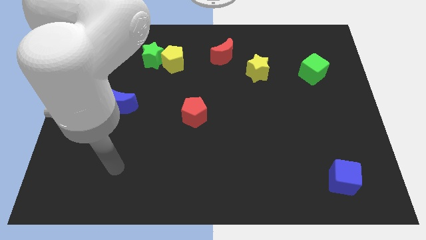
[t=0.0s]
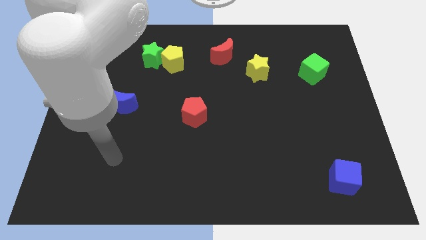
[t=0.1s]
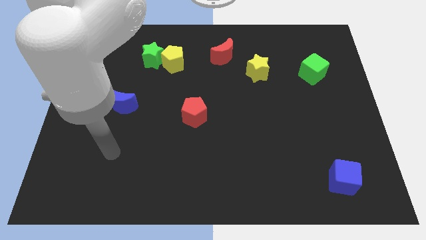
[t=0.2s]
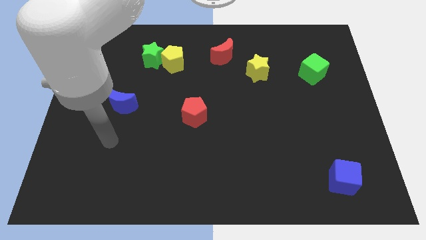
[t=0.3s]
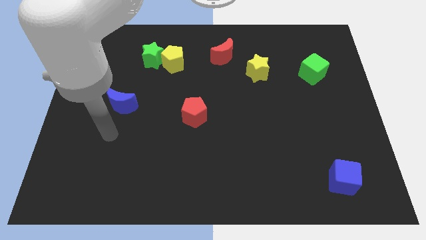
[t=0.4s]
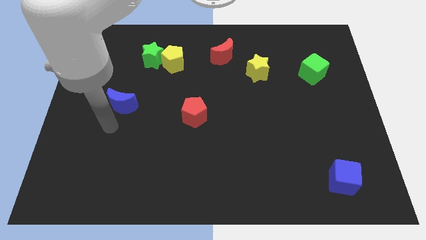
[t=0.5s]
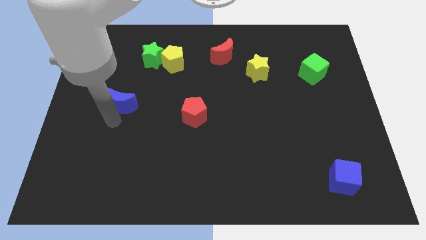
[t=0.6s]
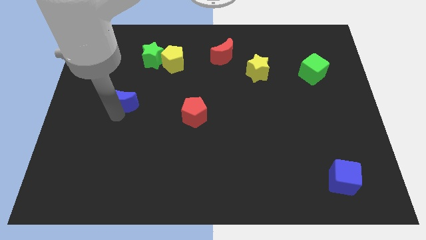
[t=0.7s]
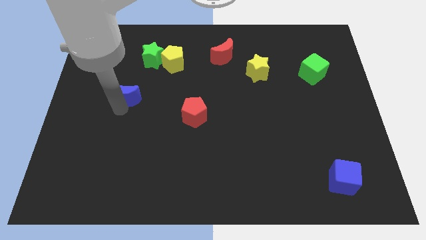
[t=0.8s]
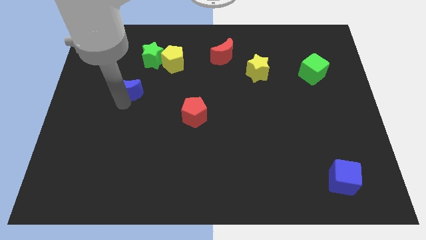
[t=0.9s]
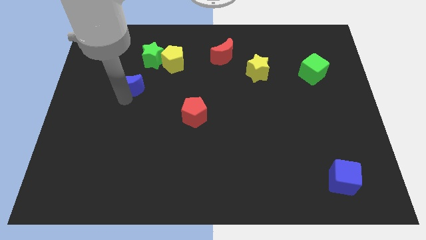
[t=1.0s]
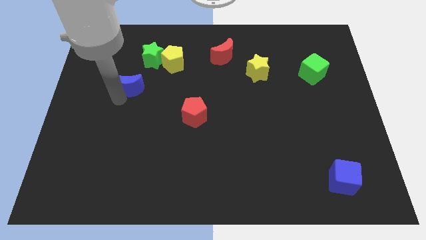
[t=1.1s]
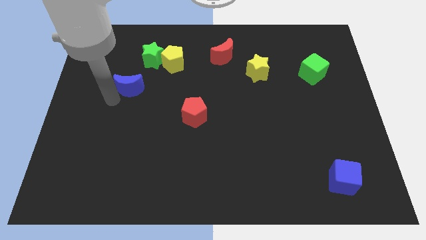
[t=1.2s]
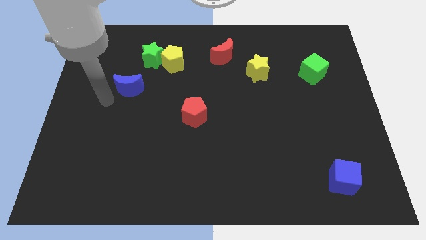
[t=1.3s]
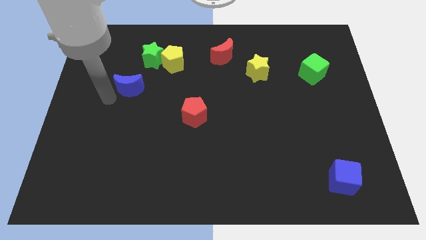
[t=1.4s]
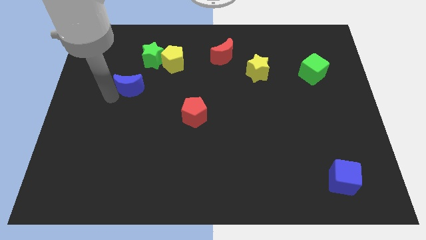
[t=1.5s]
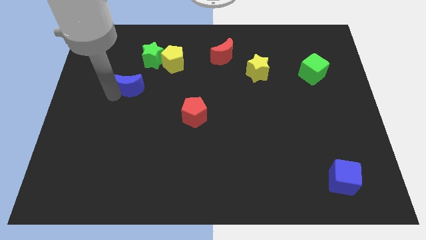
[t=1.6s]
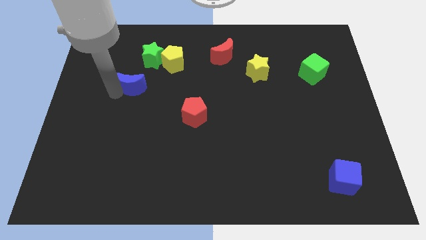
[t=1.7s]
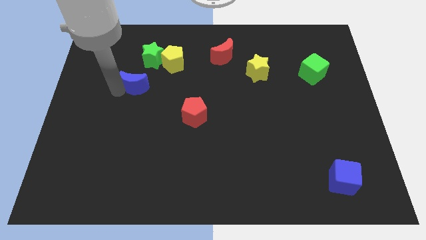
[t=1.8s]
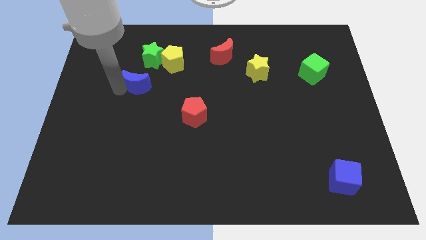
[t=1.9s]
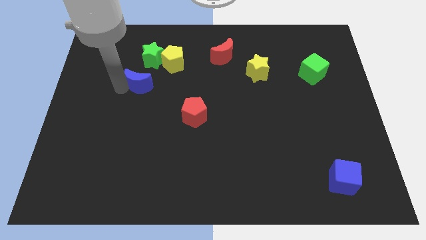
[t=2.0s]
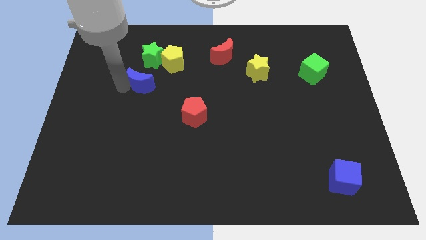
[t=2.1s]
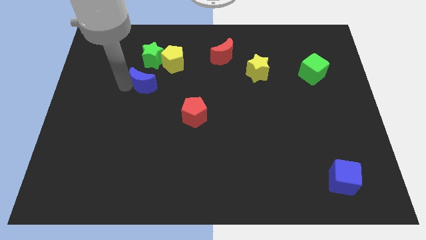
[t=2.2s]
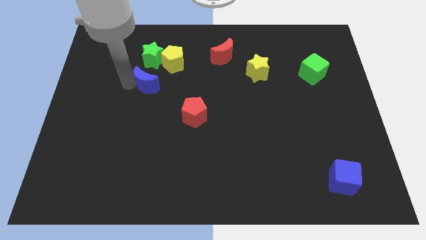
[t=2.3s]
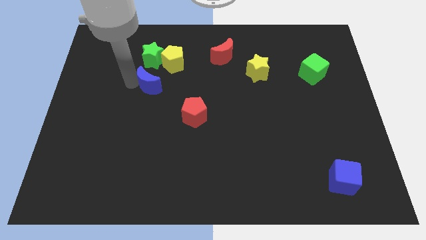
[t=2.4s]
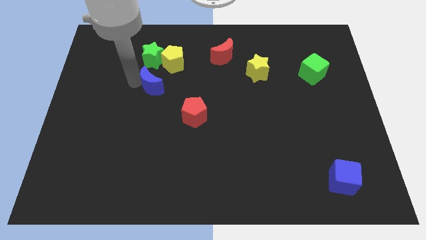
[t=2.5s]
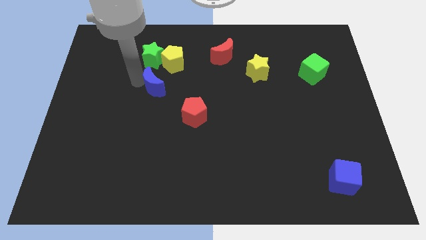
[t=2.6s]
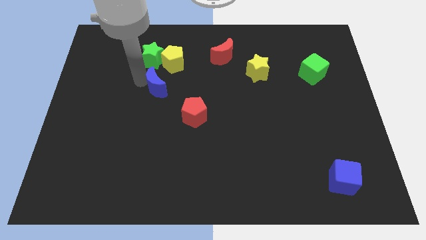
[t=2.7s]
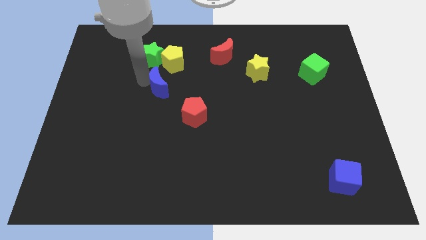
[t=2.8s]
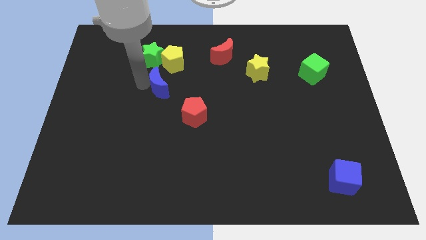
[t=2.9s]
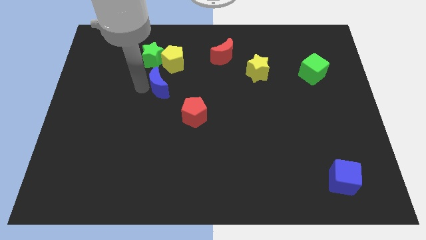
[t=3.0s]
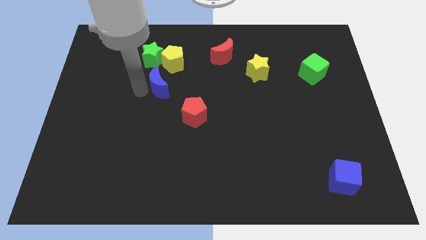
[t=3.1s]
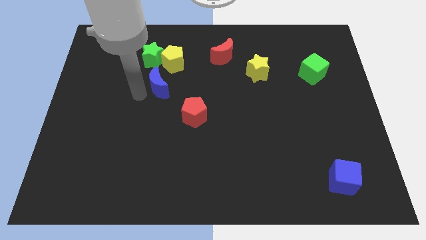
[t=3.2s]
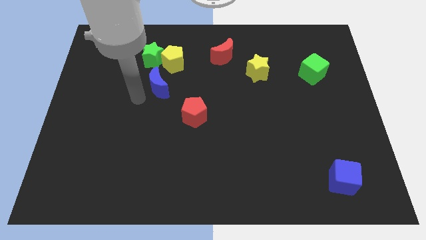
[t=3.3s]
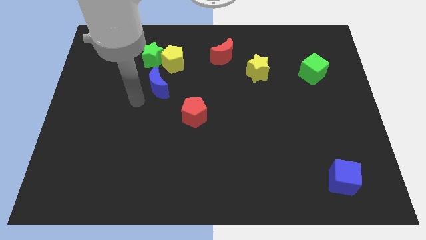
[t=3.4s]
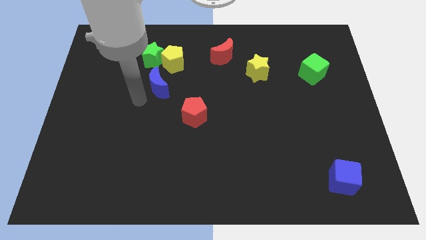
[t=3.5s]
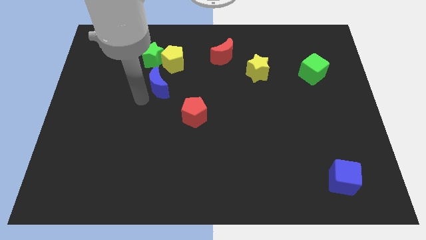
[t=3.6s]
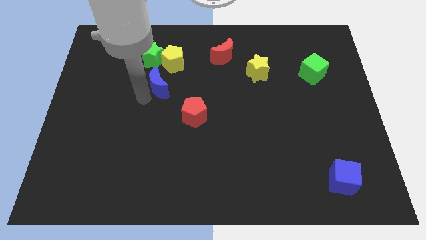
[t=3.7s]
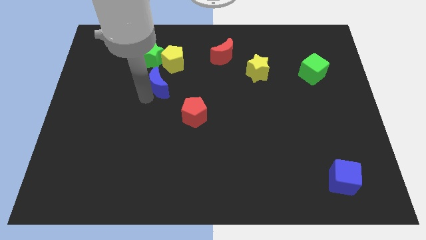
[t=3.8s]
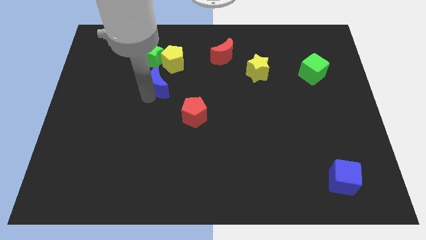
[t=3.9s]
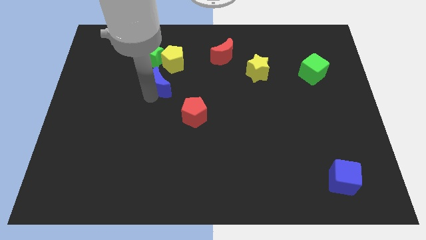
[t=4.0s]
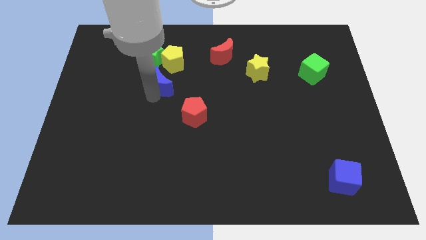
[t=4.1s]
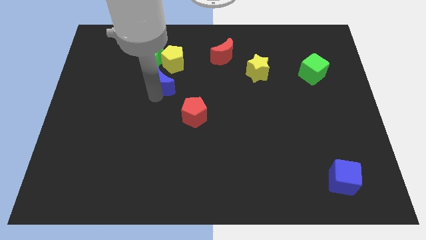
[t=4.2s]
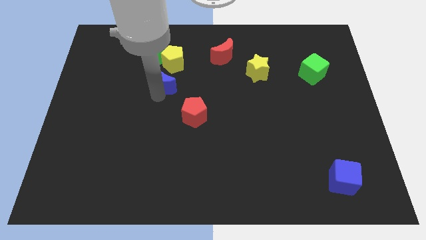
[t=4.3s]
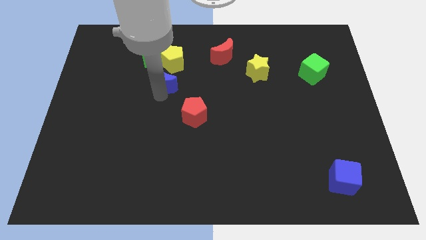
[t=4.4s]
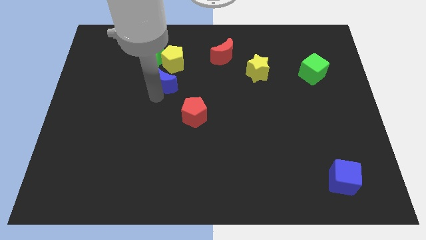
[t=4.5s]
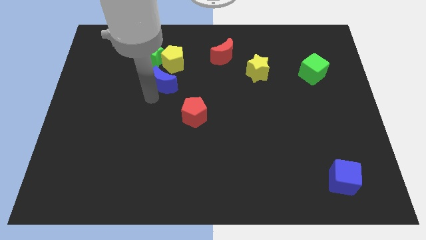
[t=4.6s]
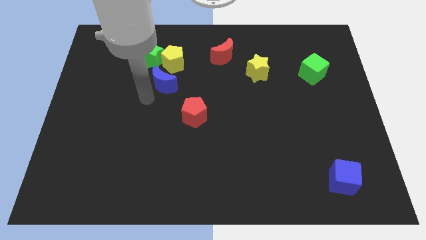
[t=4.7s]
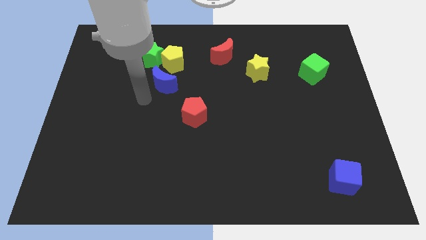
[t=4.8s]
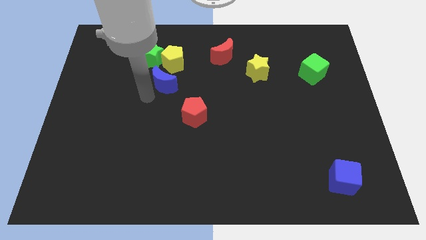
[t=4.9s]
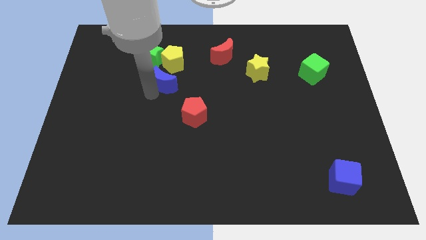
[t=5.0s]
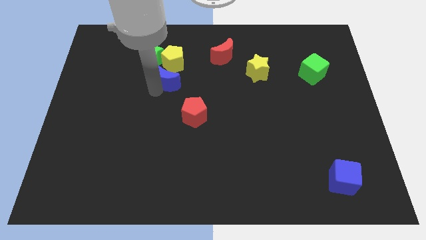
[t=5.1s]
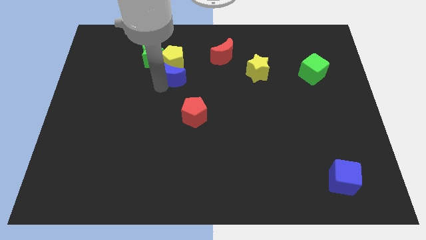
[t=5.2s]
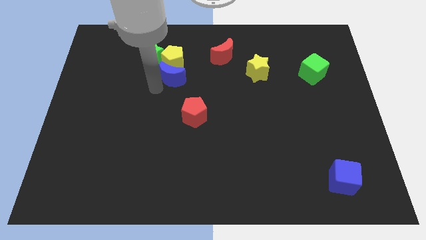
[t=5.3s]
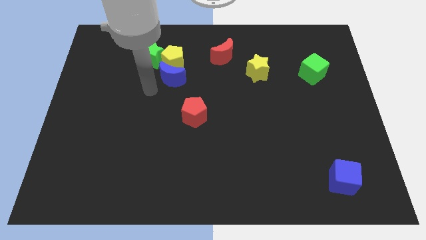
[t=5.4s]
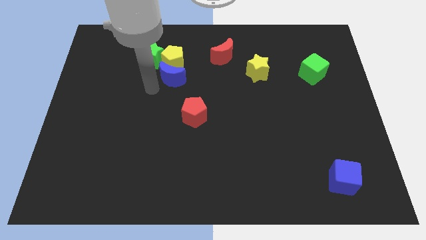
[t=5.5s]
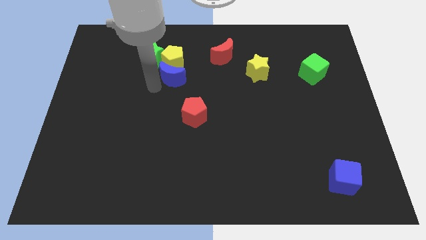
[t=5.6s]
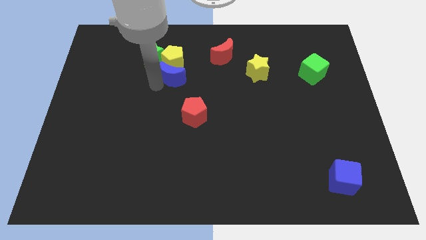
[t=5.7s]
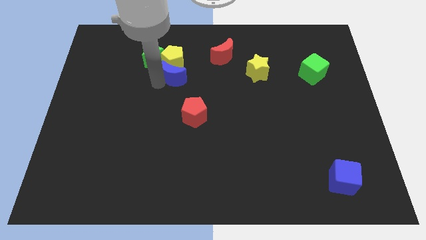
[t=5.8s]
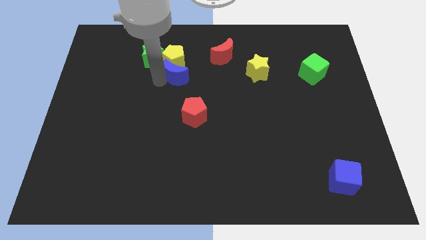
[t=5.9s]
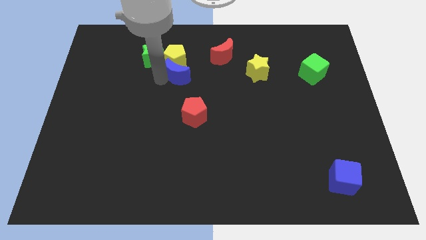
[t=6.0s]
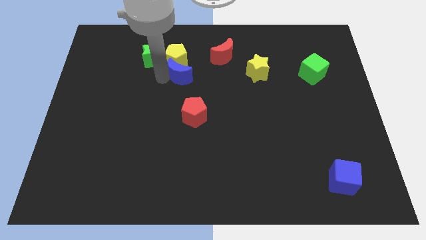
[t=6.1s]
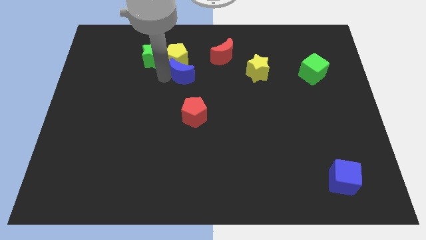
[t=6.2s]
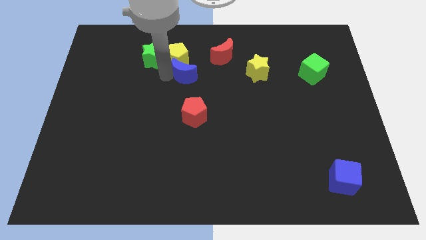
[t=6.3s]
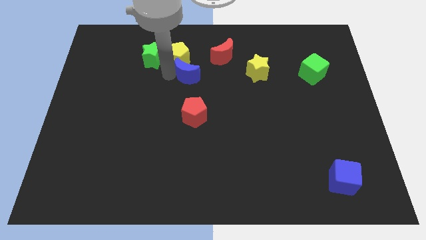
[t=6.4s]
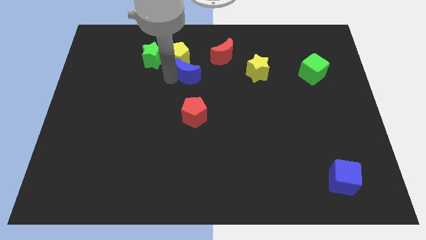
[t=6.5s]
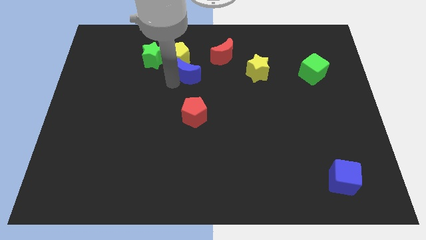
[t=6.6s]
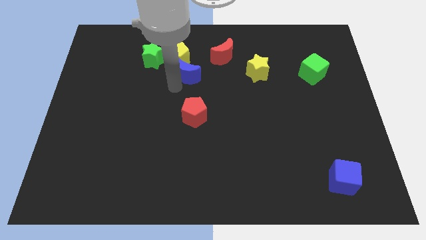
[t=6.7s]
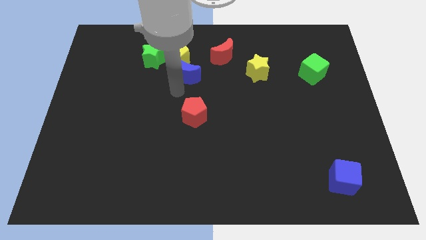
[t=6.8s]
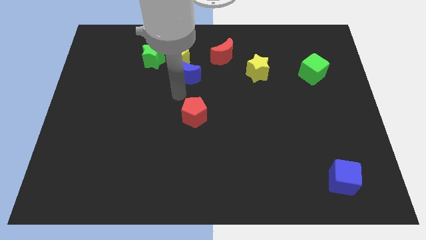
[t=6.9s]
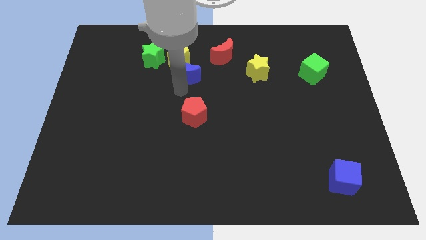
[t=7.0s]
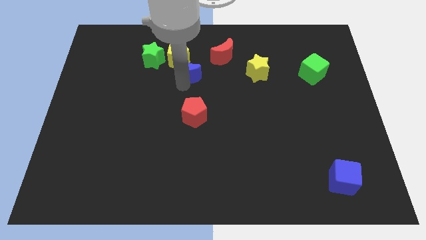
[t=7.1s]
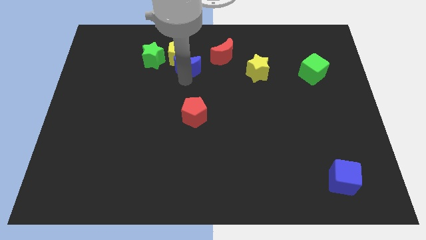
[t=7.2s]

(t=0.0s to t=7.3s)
put the blue moon to the right of the green star

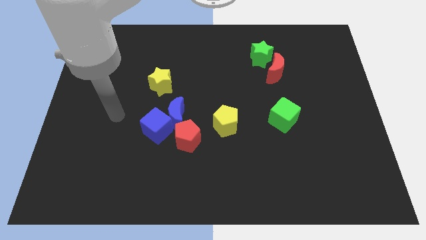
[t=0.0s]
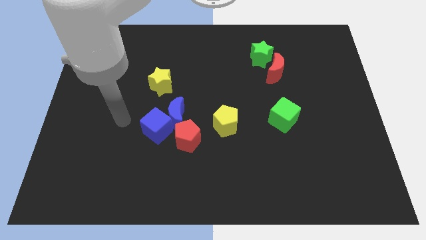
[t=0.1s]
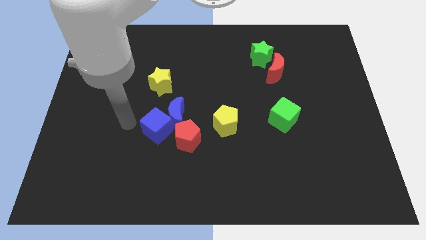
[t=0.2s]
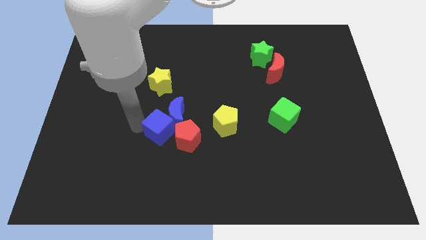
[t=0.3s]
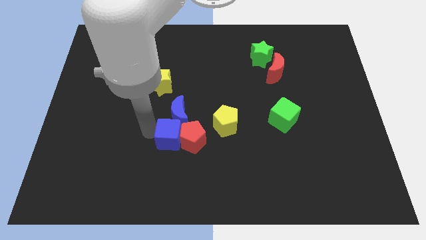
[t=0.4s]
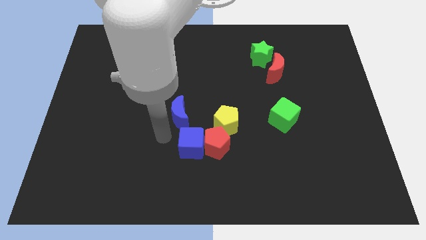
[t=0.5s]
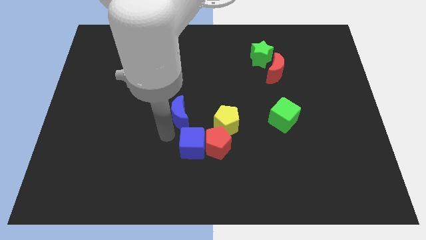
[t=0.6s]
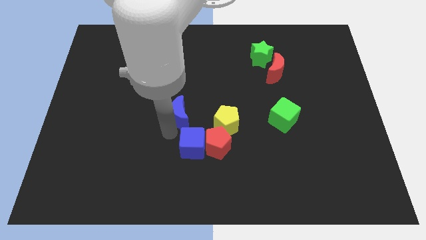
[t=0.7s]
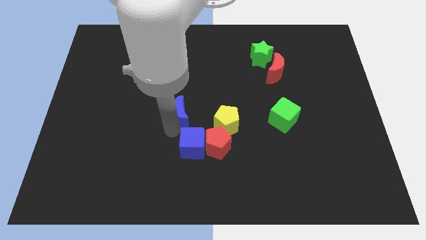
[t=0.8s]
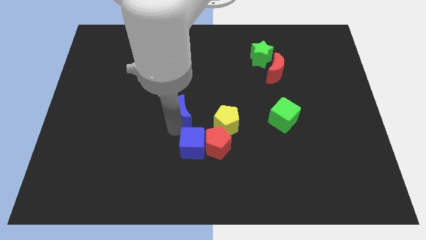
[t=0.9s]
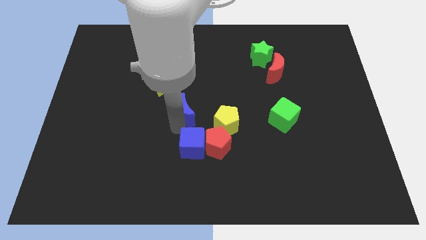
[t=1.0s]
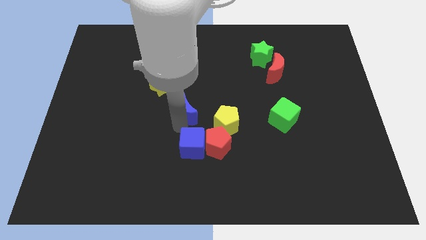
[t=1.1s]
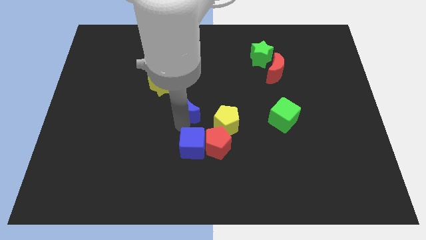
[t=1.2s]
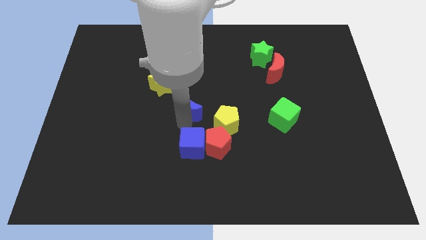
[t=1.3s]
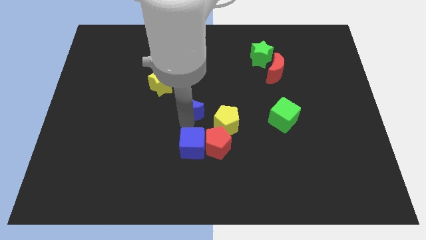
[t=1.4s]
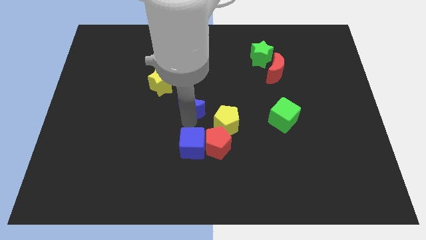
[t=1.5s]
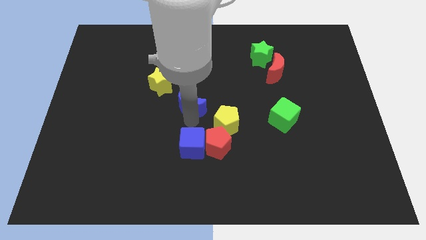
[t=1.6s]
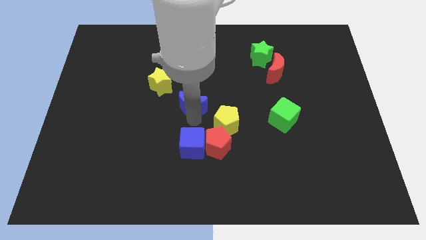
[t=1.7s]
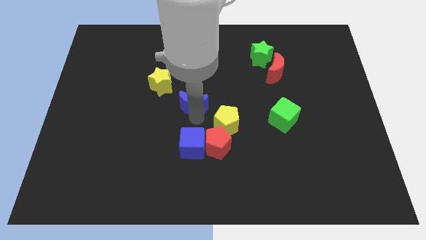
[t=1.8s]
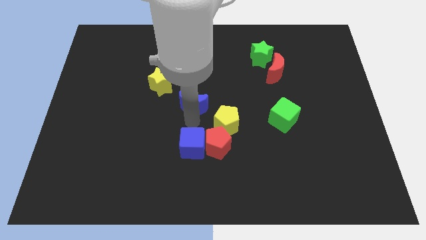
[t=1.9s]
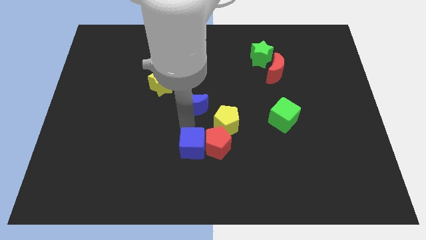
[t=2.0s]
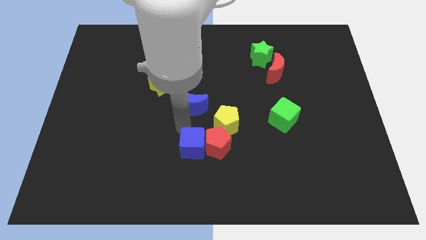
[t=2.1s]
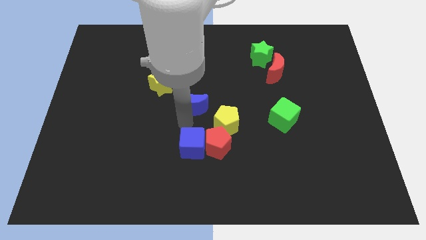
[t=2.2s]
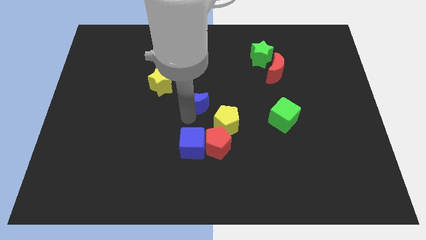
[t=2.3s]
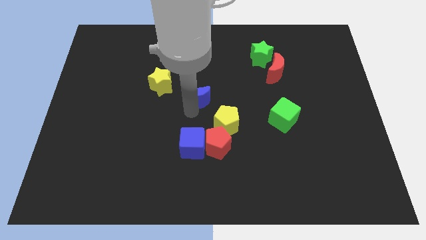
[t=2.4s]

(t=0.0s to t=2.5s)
push the blue moon to the right side of the yellow star
